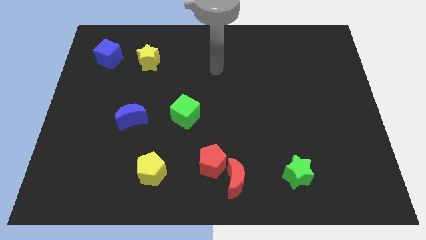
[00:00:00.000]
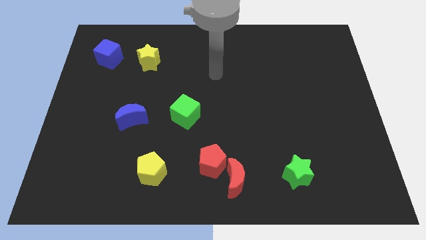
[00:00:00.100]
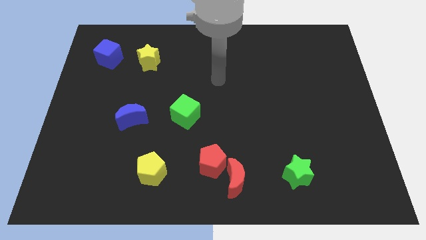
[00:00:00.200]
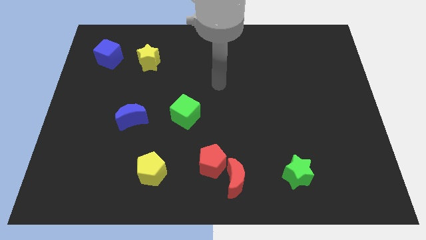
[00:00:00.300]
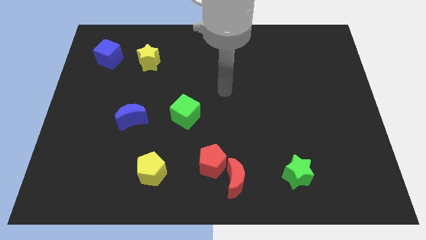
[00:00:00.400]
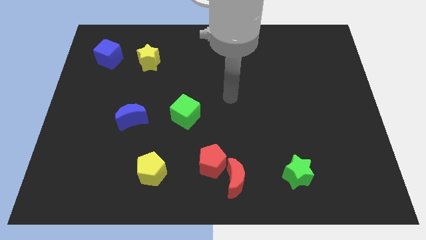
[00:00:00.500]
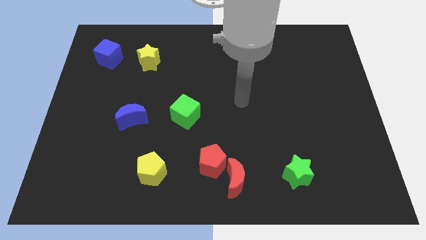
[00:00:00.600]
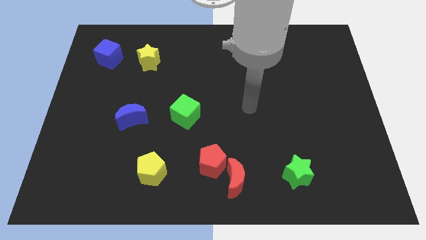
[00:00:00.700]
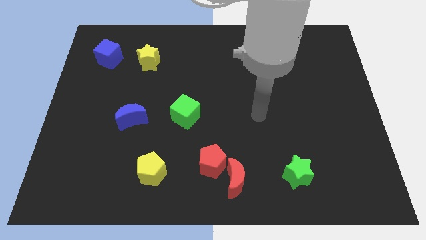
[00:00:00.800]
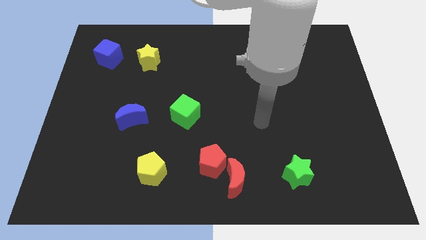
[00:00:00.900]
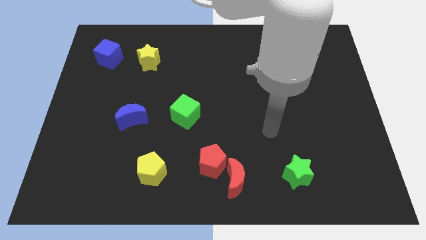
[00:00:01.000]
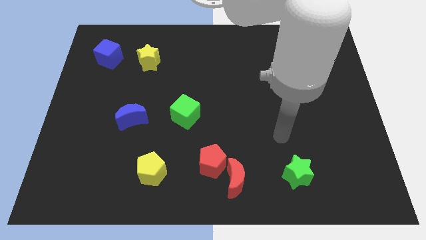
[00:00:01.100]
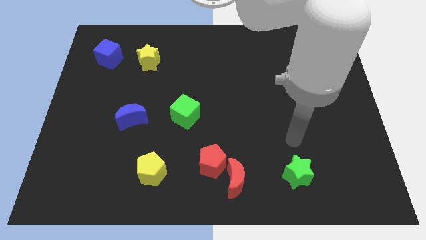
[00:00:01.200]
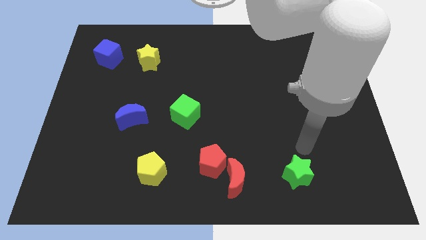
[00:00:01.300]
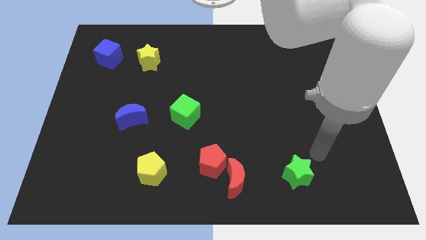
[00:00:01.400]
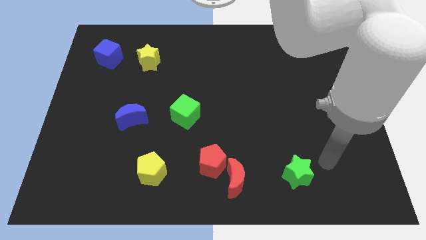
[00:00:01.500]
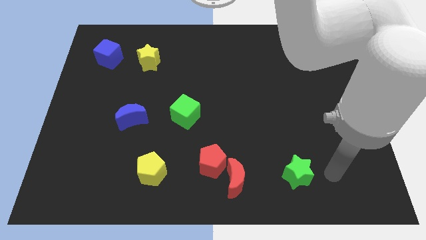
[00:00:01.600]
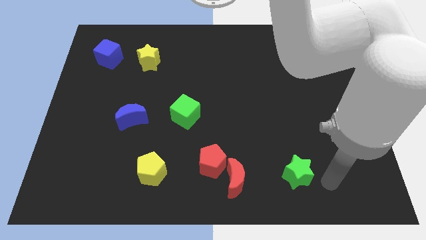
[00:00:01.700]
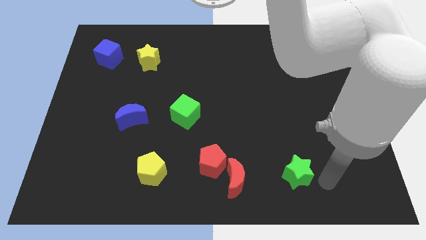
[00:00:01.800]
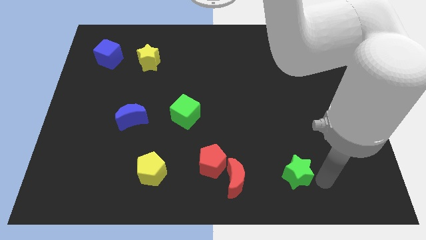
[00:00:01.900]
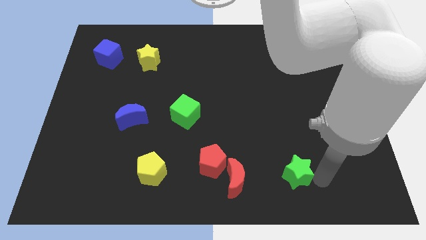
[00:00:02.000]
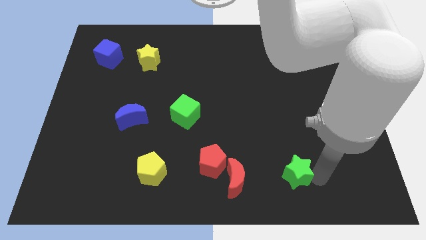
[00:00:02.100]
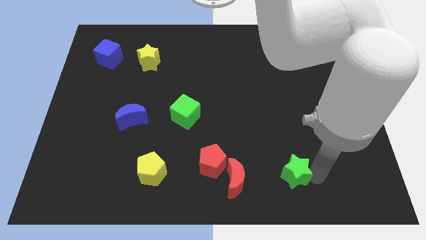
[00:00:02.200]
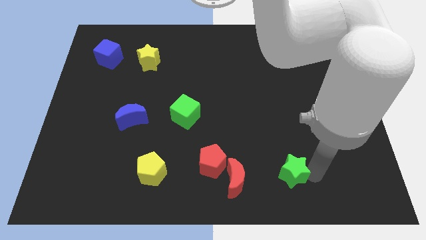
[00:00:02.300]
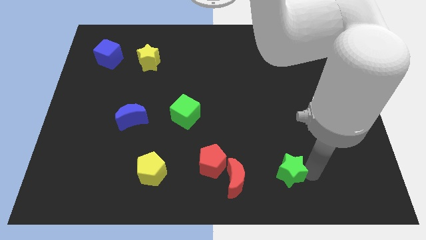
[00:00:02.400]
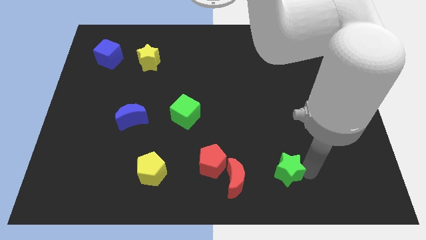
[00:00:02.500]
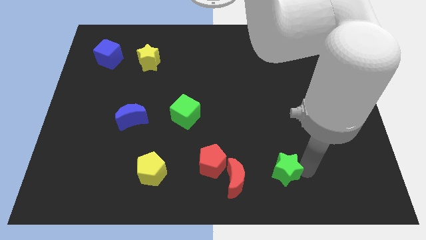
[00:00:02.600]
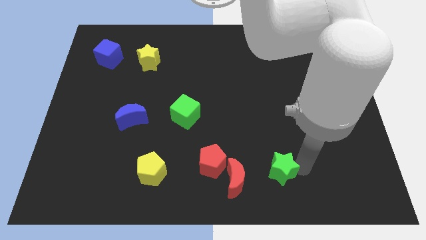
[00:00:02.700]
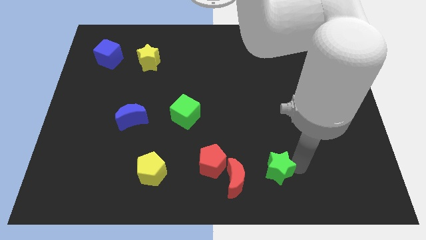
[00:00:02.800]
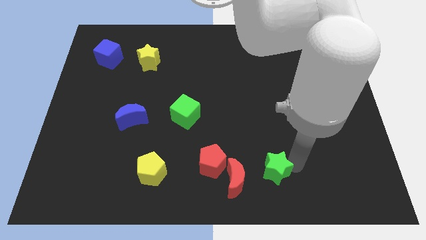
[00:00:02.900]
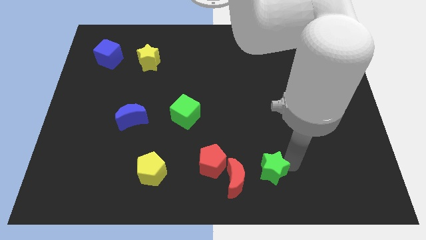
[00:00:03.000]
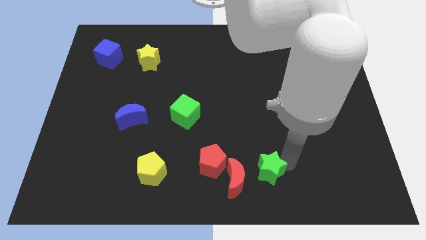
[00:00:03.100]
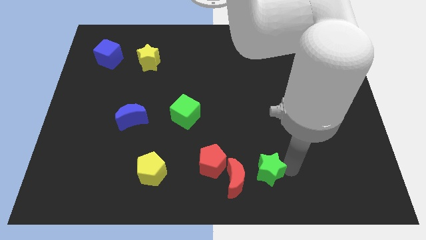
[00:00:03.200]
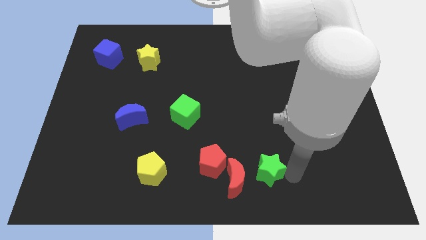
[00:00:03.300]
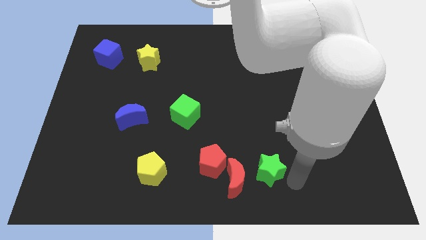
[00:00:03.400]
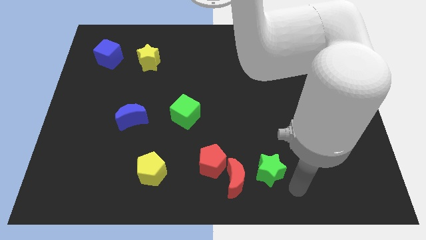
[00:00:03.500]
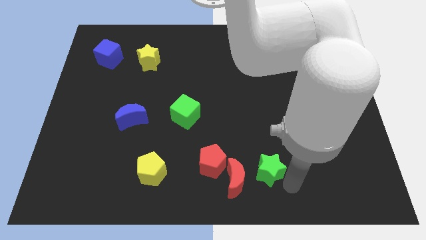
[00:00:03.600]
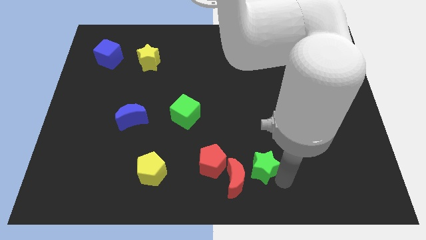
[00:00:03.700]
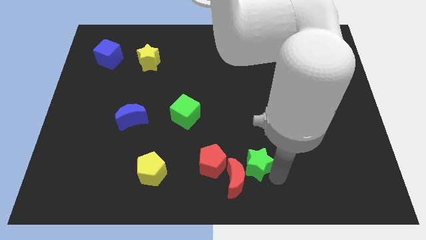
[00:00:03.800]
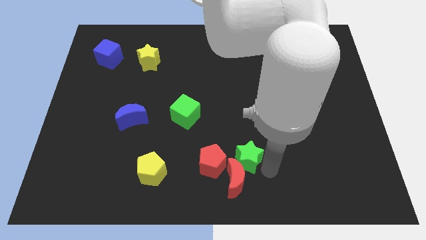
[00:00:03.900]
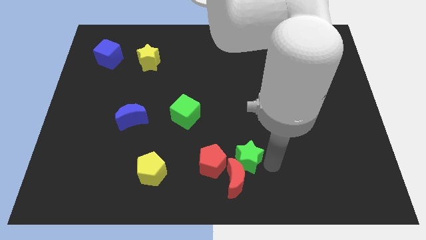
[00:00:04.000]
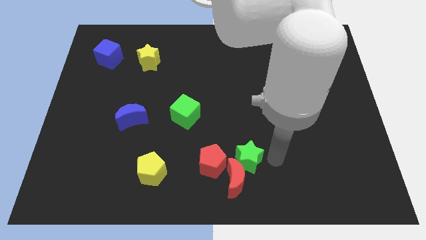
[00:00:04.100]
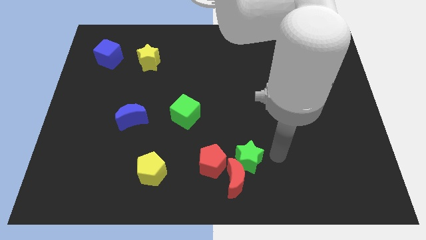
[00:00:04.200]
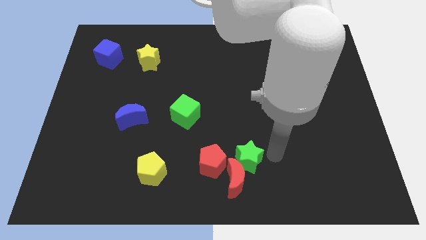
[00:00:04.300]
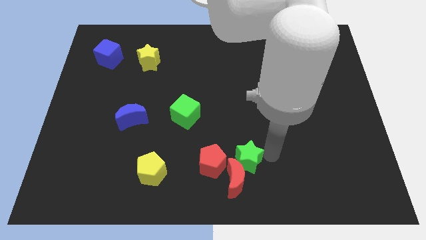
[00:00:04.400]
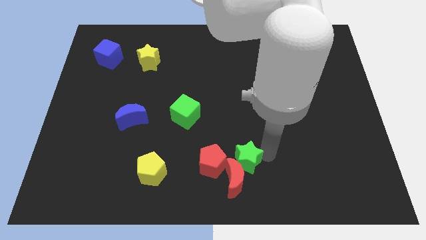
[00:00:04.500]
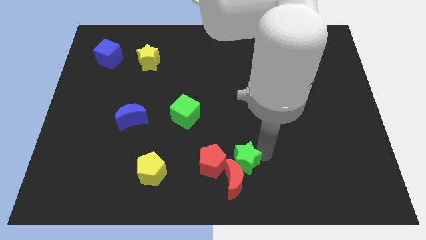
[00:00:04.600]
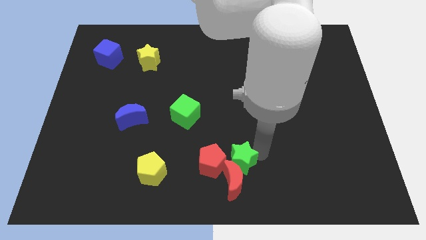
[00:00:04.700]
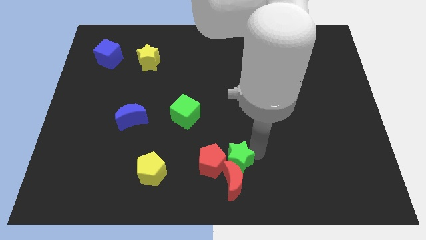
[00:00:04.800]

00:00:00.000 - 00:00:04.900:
move the green star close to the red pentagon

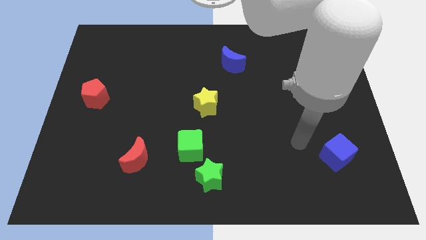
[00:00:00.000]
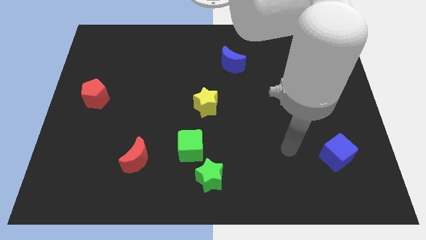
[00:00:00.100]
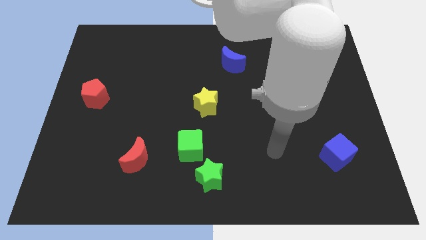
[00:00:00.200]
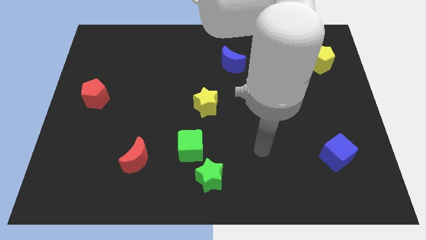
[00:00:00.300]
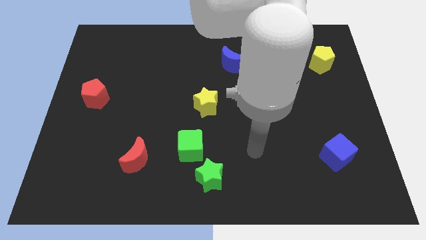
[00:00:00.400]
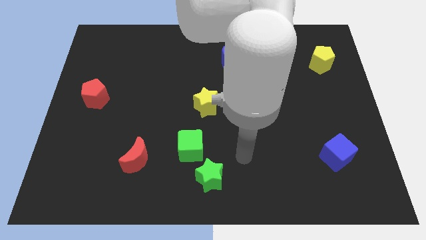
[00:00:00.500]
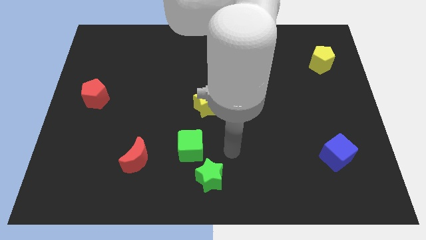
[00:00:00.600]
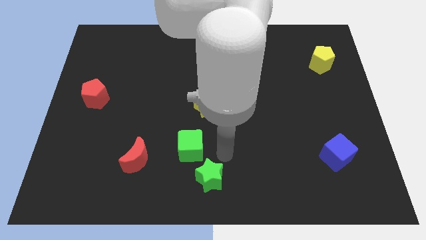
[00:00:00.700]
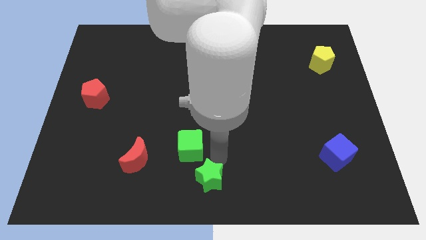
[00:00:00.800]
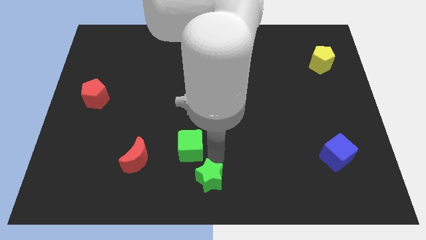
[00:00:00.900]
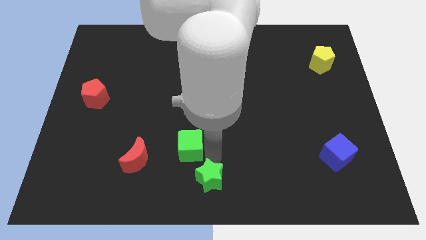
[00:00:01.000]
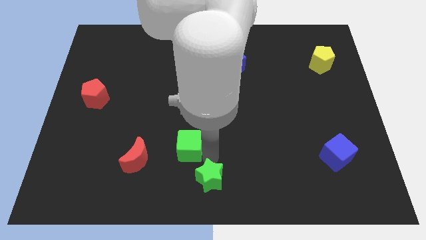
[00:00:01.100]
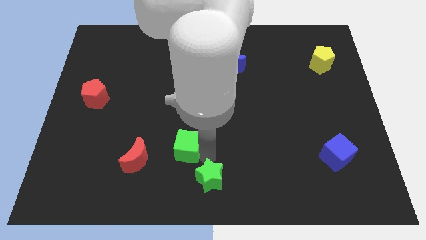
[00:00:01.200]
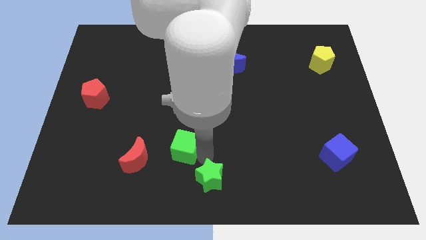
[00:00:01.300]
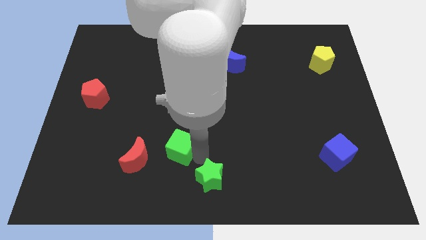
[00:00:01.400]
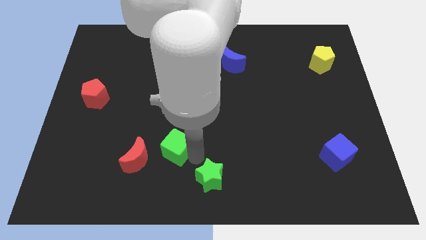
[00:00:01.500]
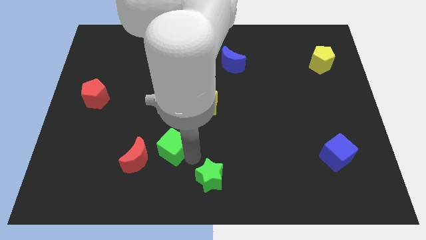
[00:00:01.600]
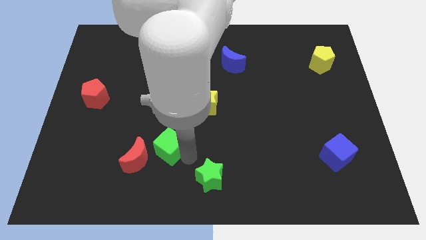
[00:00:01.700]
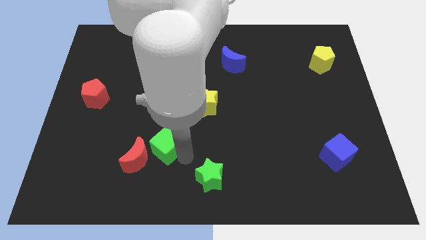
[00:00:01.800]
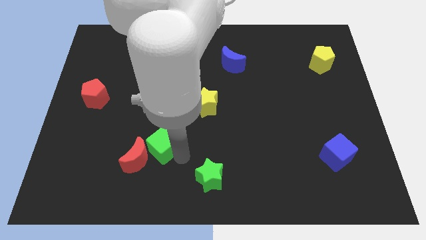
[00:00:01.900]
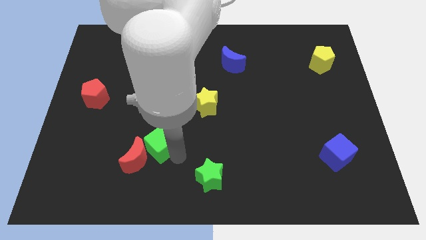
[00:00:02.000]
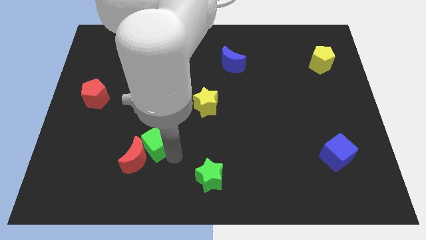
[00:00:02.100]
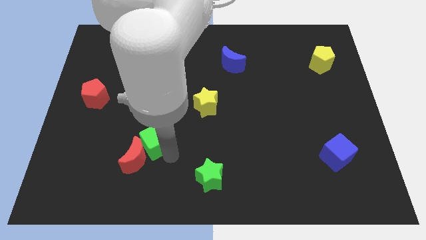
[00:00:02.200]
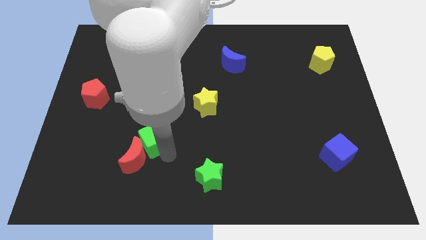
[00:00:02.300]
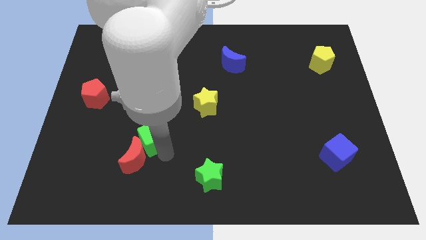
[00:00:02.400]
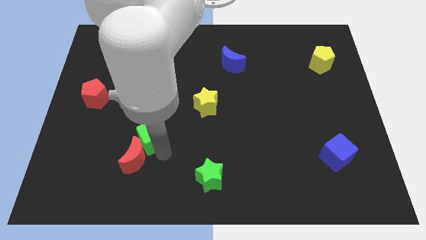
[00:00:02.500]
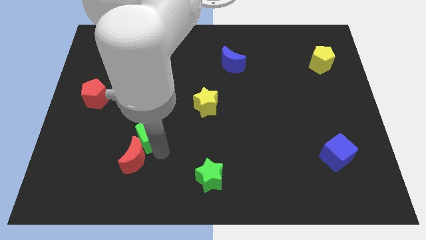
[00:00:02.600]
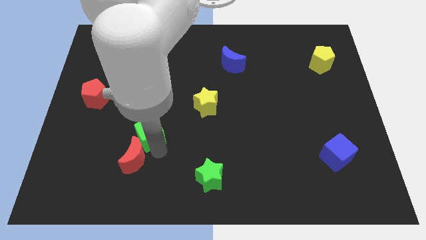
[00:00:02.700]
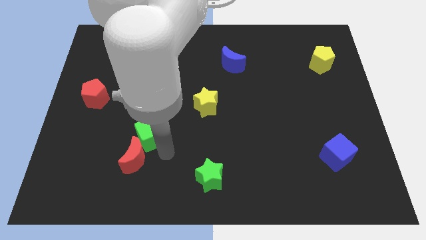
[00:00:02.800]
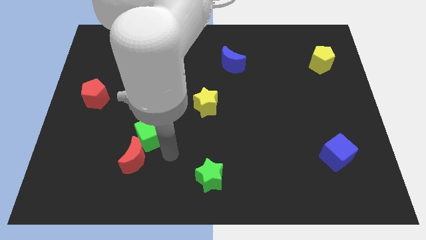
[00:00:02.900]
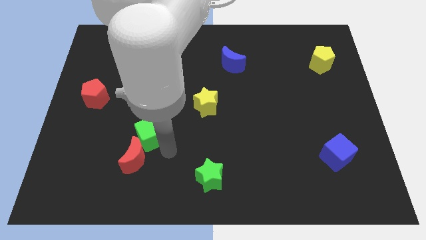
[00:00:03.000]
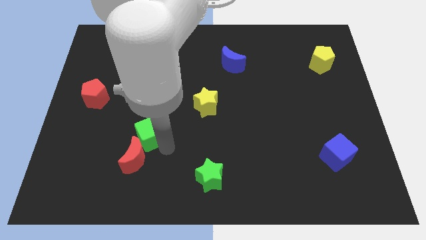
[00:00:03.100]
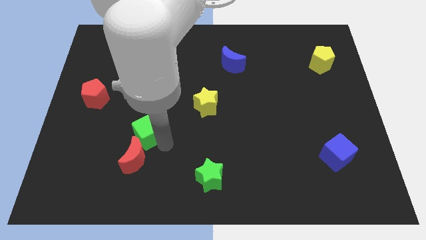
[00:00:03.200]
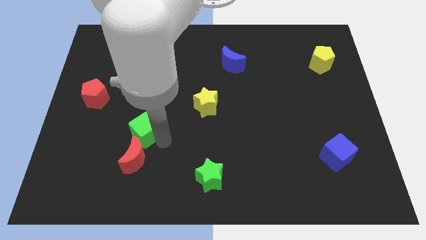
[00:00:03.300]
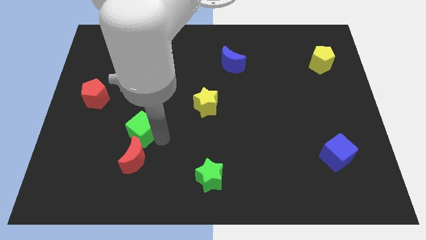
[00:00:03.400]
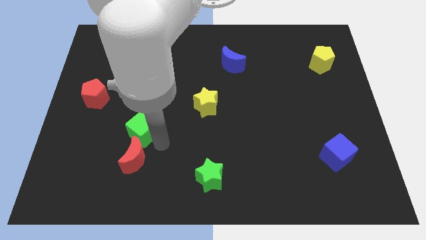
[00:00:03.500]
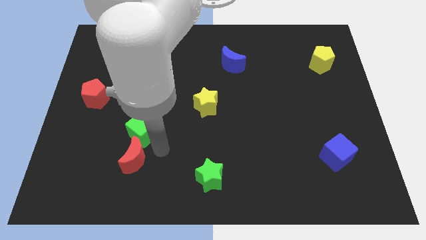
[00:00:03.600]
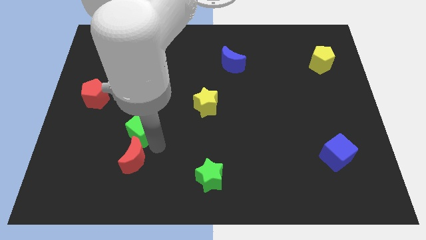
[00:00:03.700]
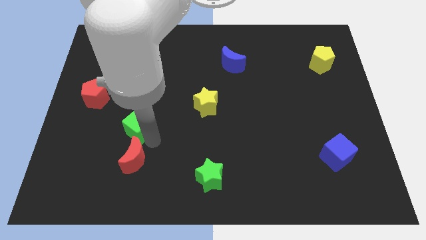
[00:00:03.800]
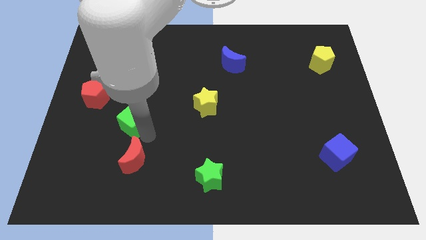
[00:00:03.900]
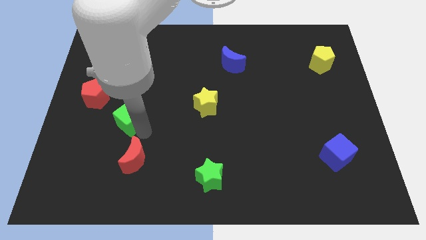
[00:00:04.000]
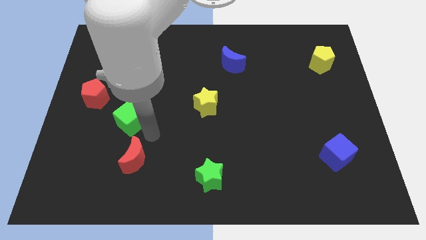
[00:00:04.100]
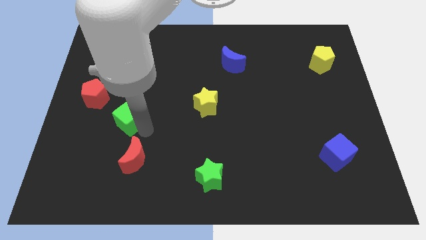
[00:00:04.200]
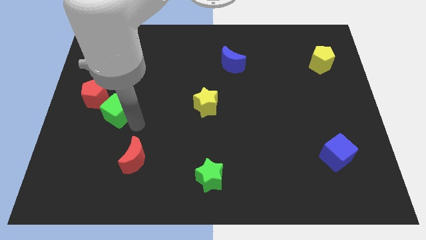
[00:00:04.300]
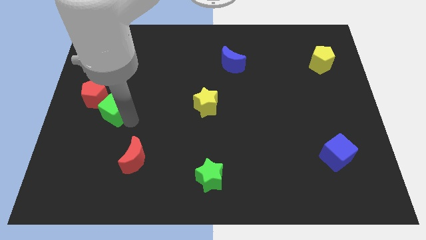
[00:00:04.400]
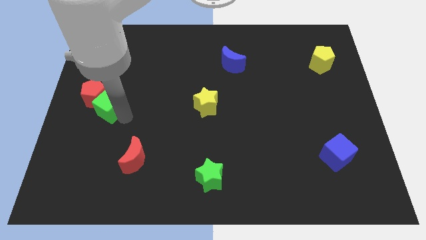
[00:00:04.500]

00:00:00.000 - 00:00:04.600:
slide the green cube to the red pentagon
